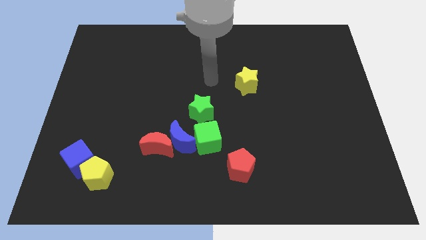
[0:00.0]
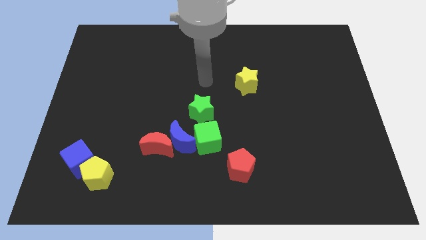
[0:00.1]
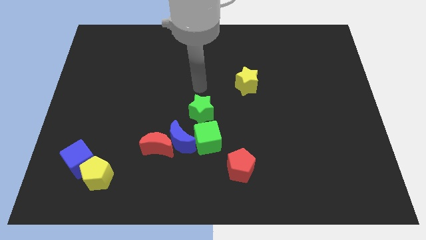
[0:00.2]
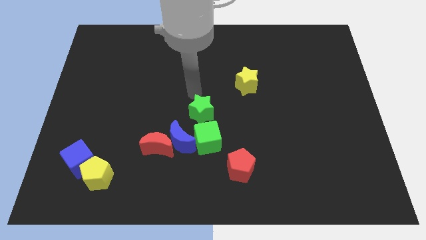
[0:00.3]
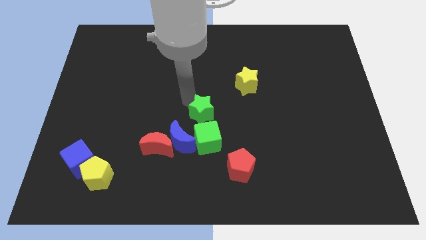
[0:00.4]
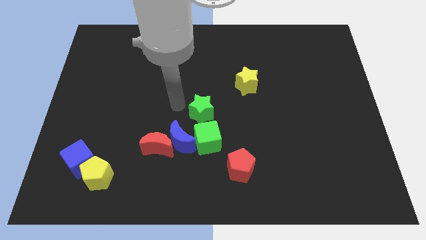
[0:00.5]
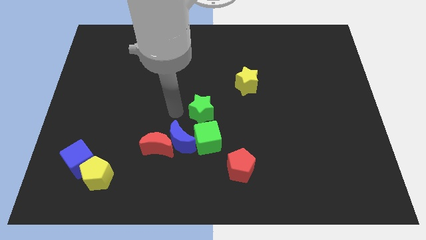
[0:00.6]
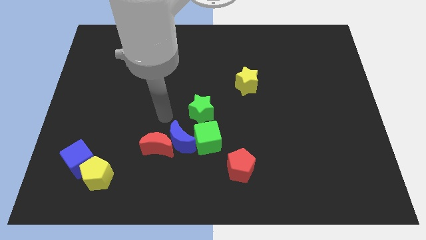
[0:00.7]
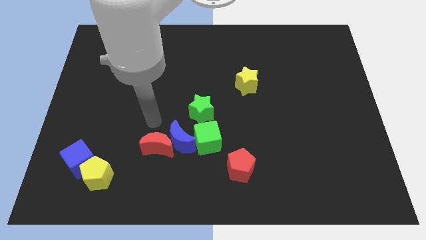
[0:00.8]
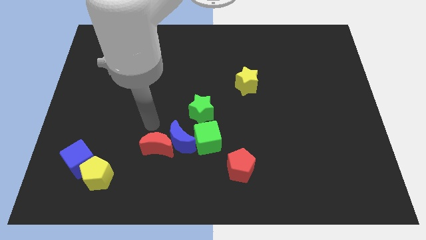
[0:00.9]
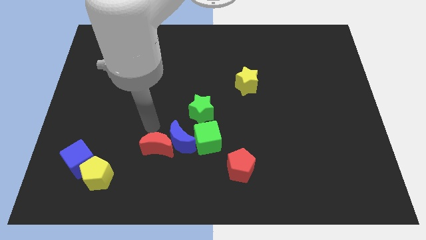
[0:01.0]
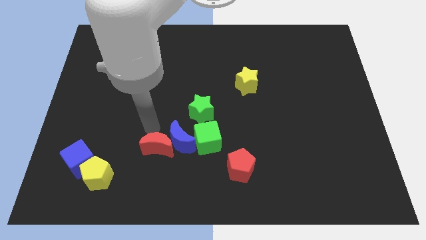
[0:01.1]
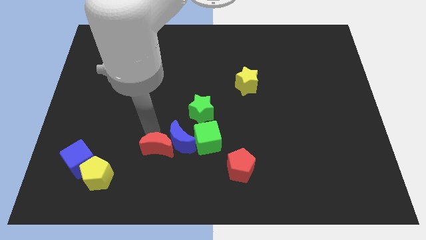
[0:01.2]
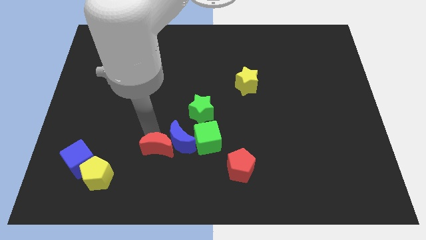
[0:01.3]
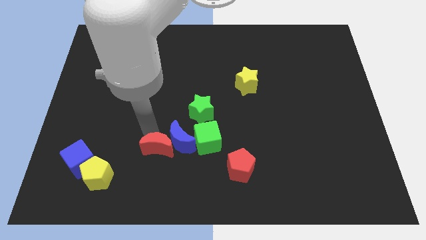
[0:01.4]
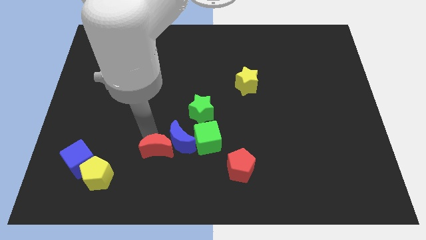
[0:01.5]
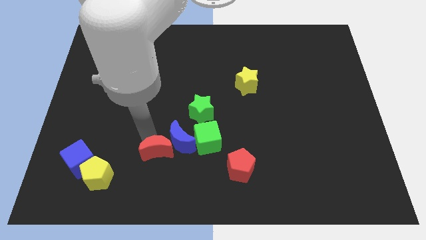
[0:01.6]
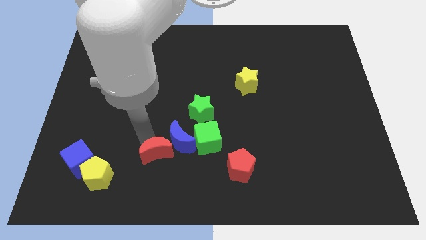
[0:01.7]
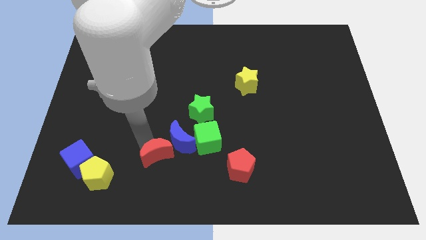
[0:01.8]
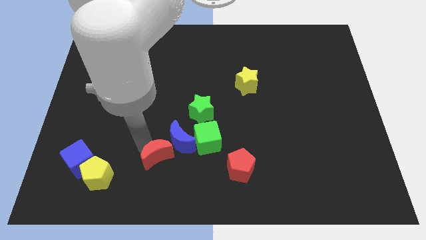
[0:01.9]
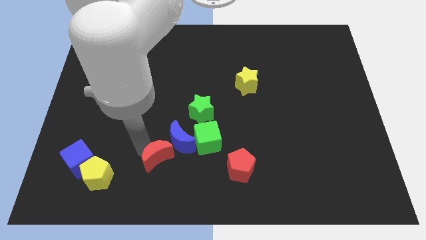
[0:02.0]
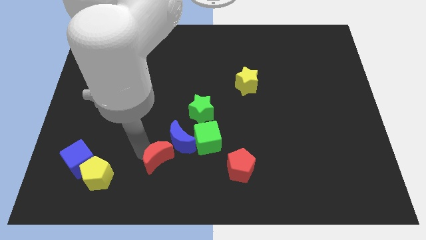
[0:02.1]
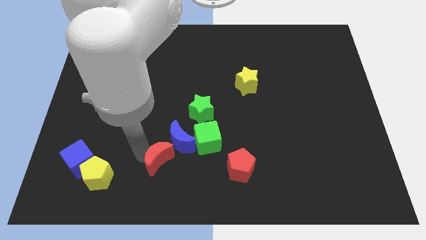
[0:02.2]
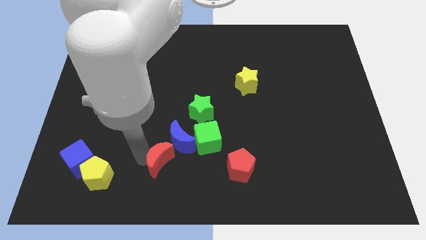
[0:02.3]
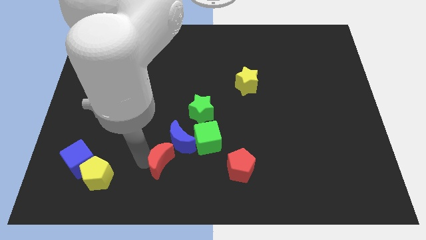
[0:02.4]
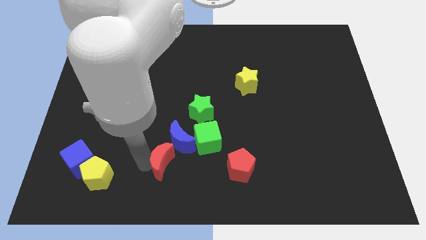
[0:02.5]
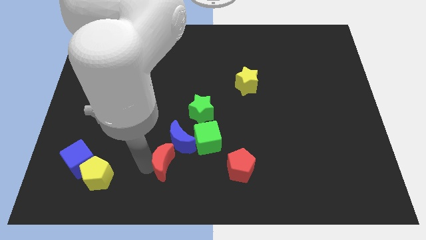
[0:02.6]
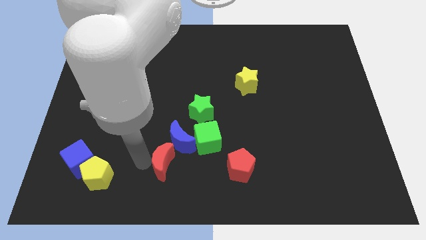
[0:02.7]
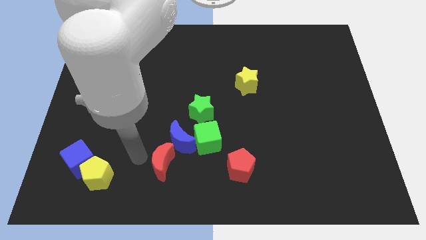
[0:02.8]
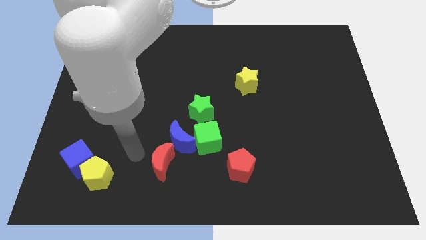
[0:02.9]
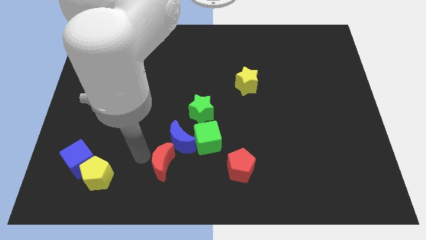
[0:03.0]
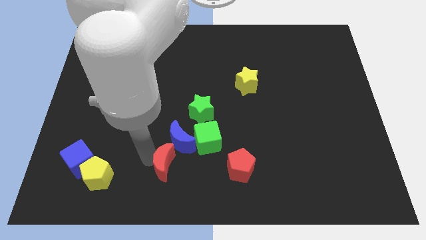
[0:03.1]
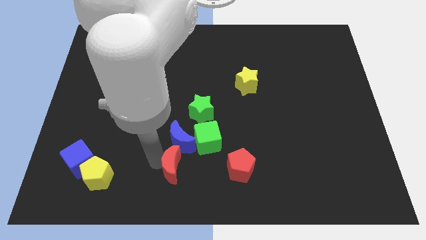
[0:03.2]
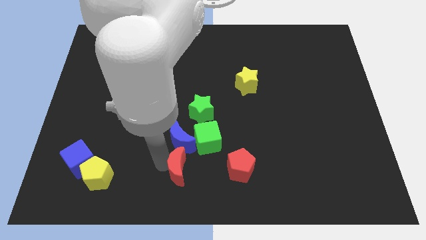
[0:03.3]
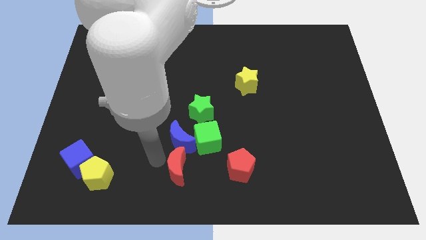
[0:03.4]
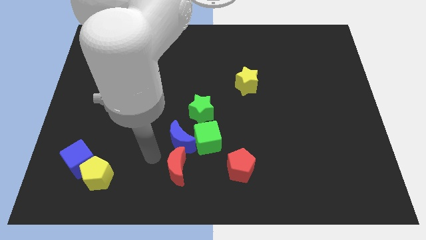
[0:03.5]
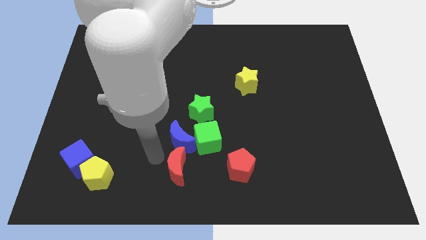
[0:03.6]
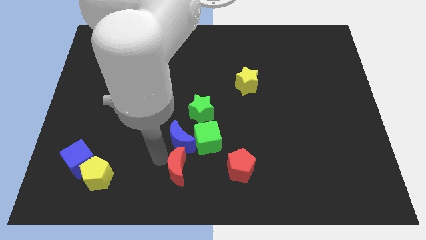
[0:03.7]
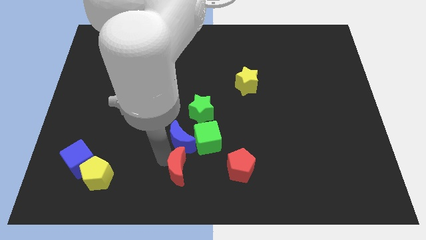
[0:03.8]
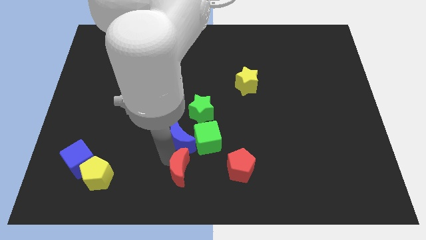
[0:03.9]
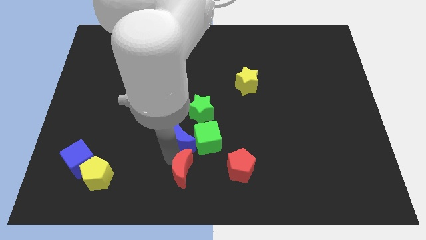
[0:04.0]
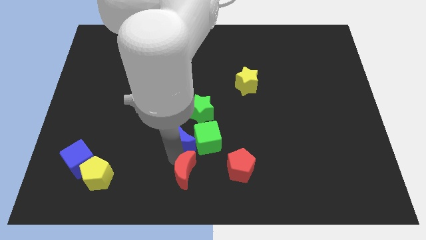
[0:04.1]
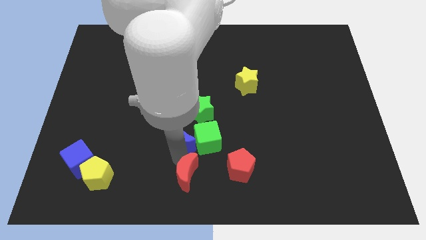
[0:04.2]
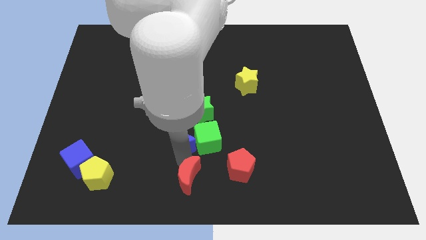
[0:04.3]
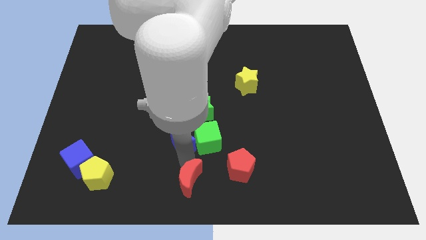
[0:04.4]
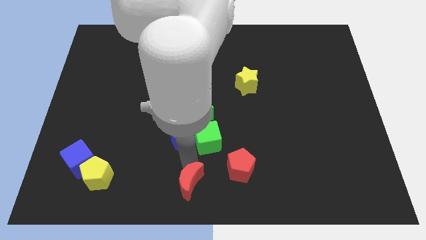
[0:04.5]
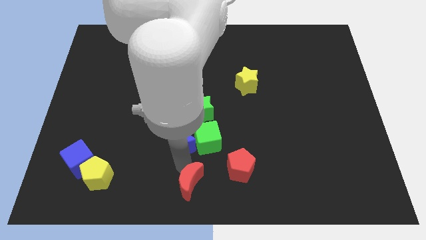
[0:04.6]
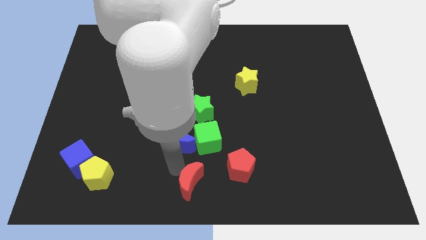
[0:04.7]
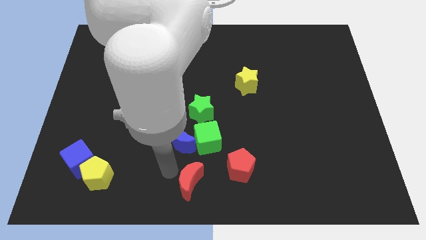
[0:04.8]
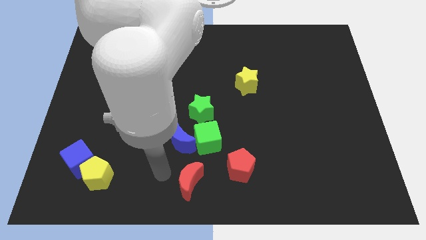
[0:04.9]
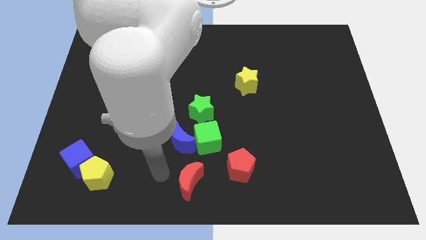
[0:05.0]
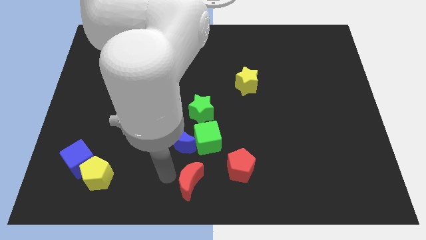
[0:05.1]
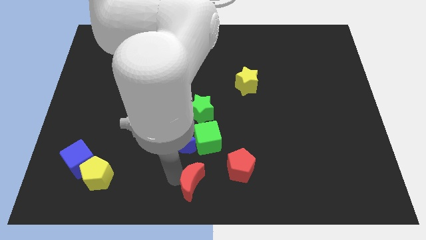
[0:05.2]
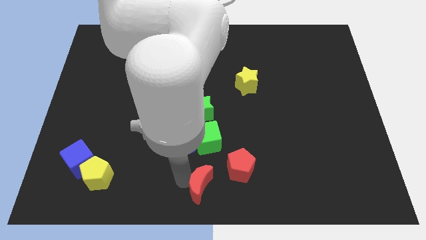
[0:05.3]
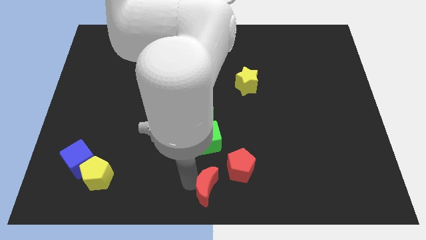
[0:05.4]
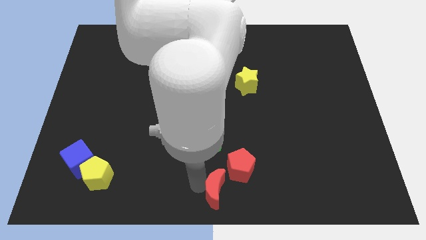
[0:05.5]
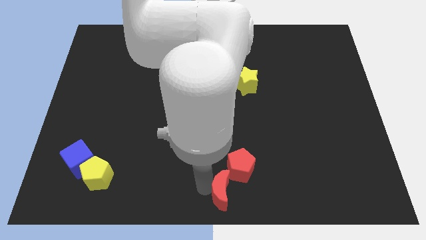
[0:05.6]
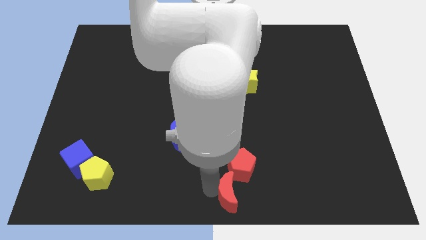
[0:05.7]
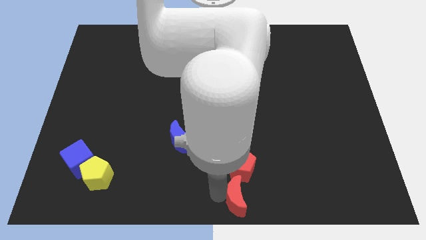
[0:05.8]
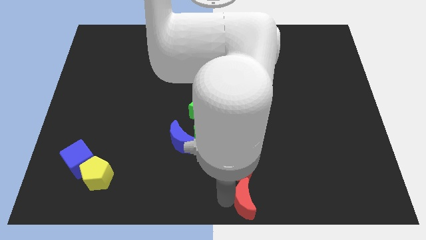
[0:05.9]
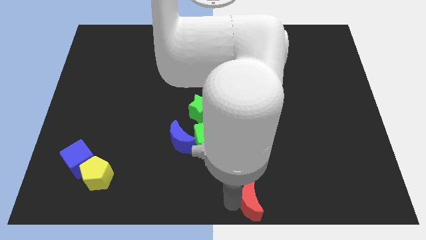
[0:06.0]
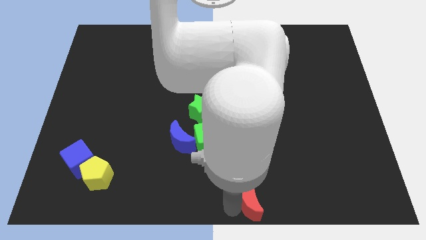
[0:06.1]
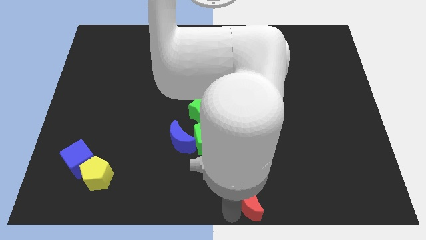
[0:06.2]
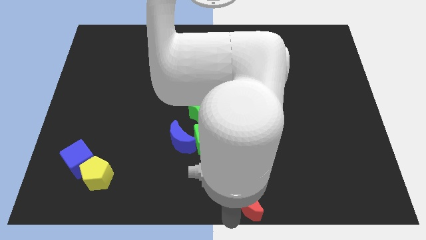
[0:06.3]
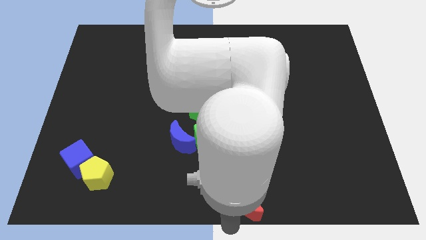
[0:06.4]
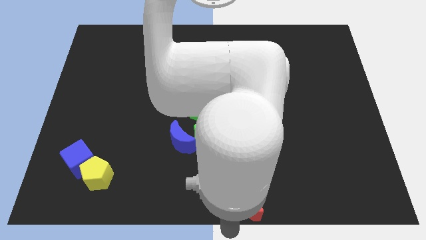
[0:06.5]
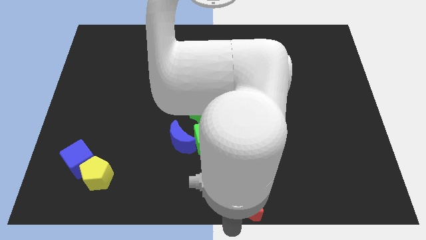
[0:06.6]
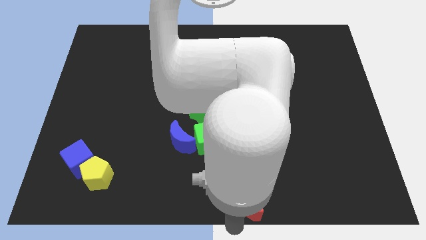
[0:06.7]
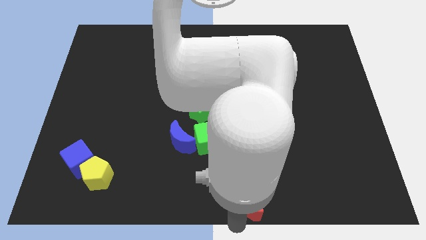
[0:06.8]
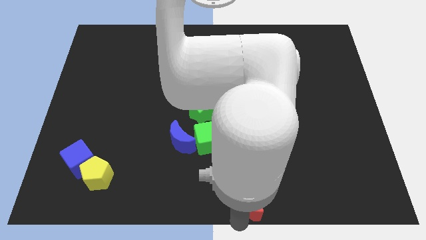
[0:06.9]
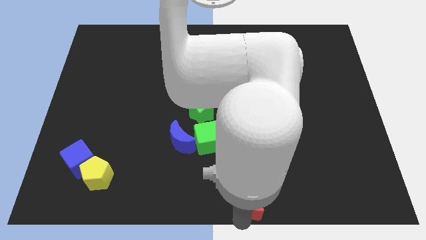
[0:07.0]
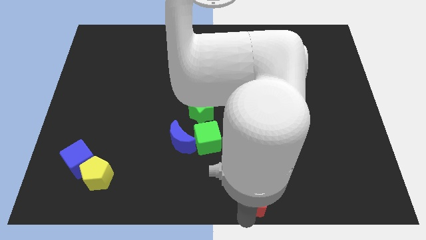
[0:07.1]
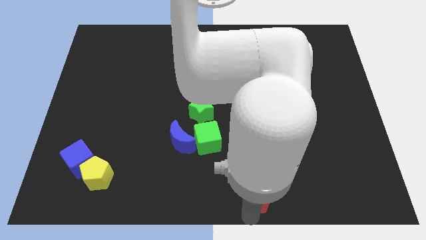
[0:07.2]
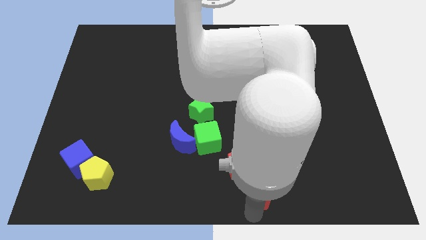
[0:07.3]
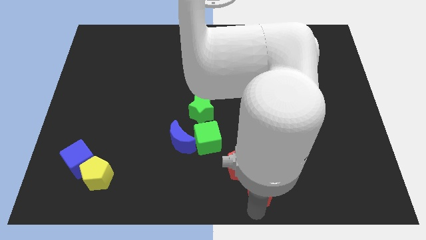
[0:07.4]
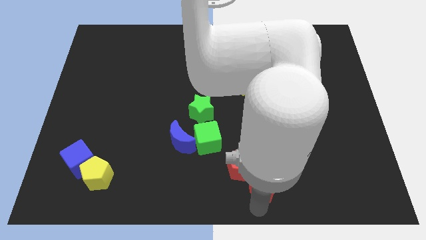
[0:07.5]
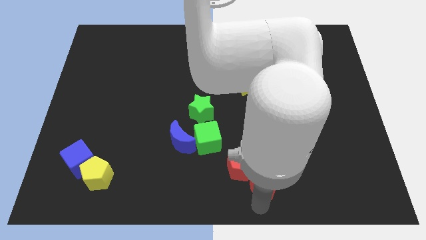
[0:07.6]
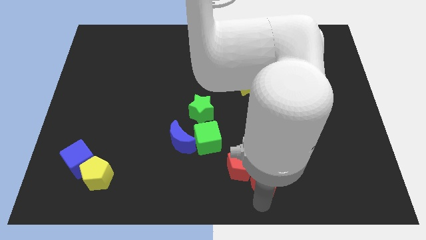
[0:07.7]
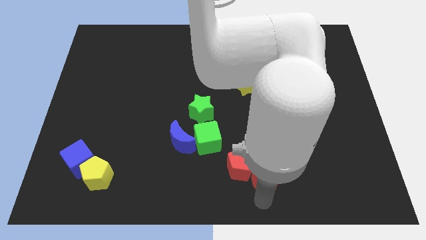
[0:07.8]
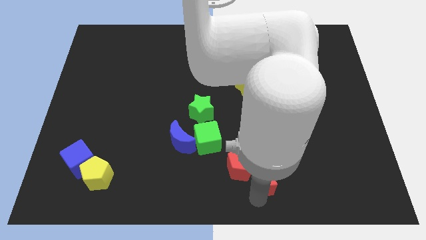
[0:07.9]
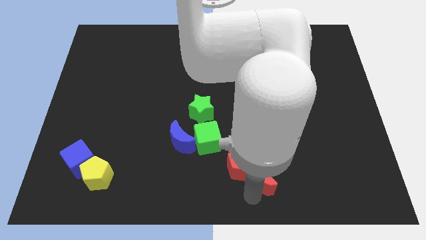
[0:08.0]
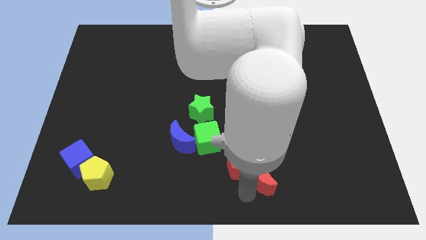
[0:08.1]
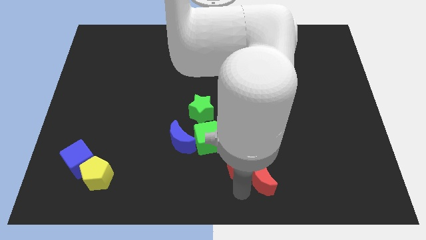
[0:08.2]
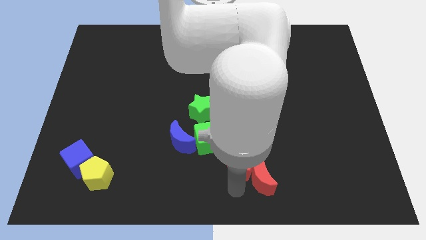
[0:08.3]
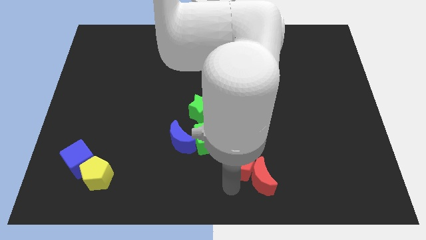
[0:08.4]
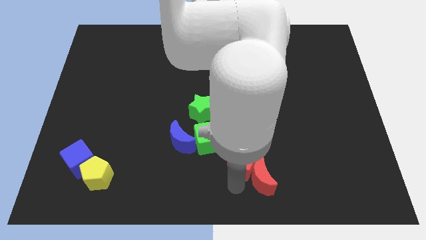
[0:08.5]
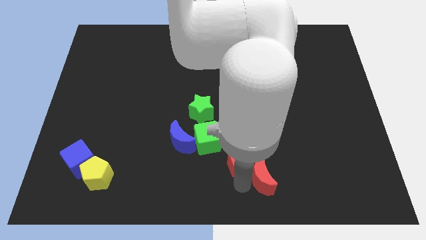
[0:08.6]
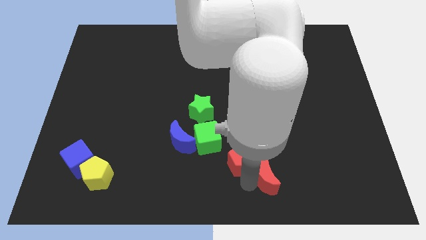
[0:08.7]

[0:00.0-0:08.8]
push the red moon right
